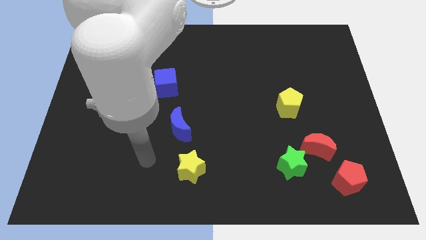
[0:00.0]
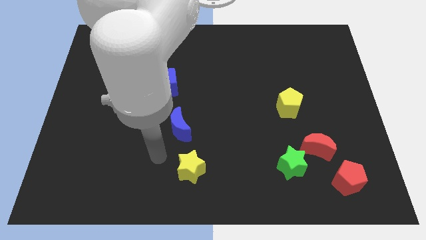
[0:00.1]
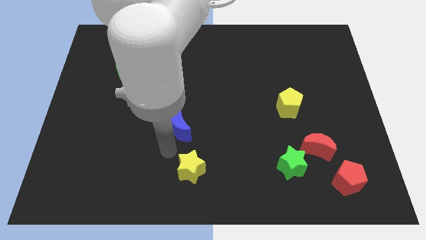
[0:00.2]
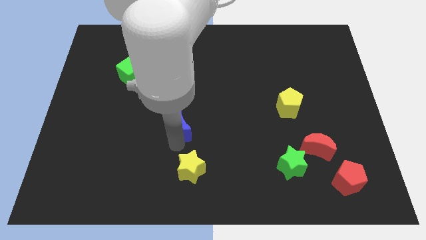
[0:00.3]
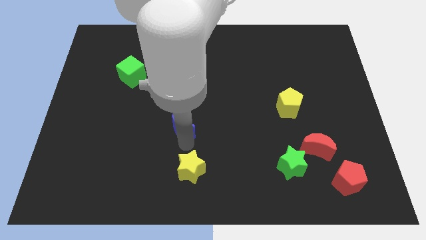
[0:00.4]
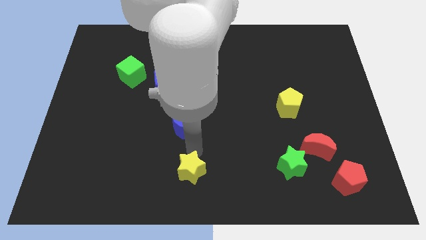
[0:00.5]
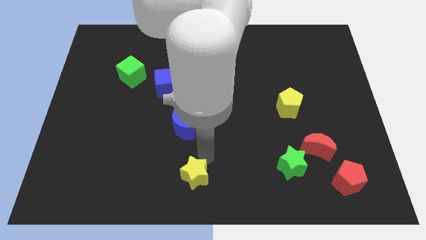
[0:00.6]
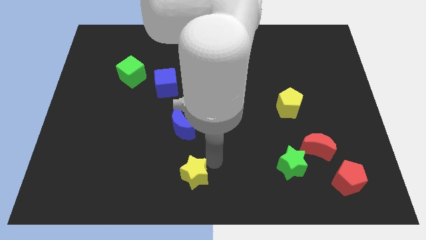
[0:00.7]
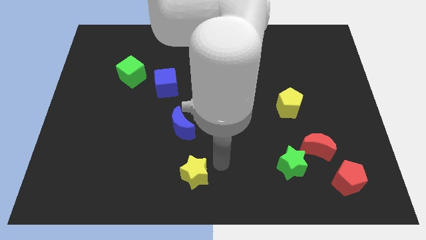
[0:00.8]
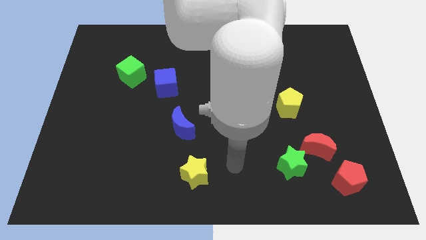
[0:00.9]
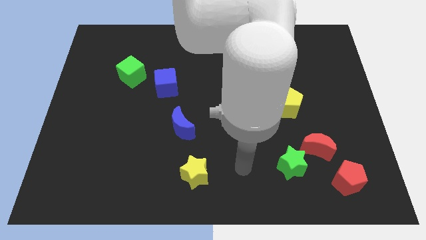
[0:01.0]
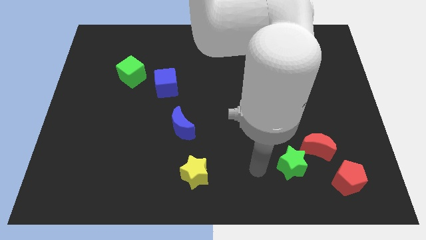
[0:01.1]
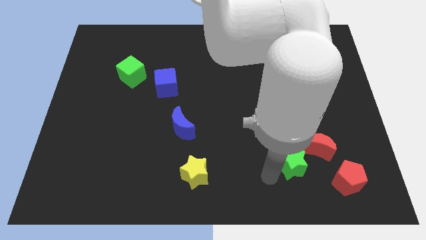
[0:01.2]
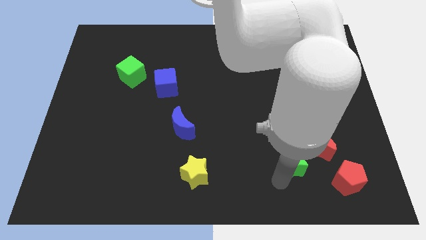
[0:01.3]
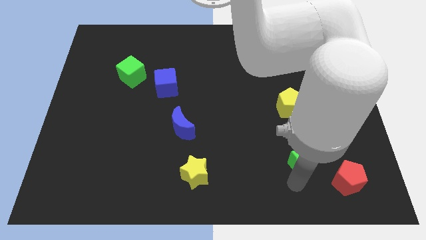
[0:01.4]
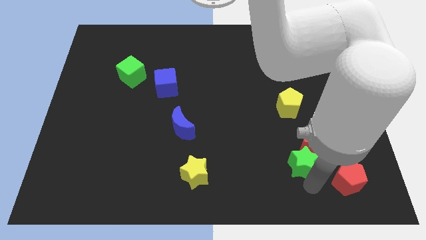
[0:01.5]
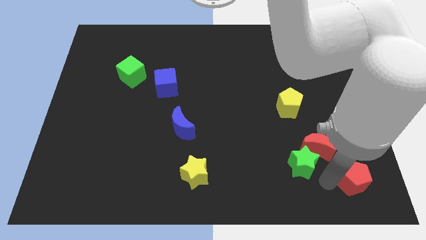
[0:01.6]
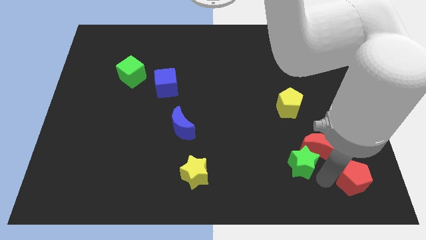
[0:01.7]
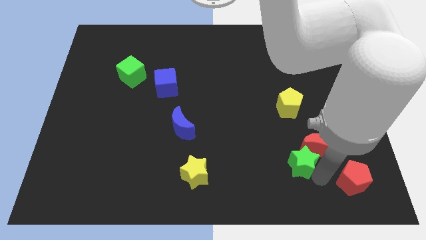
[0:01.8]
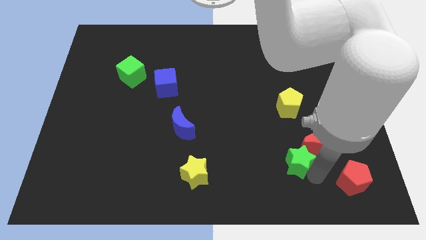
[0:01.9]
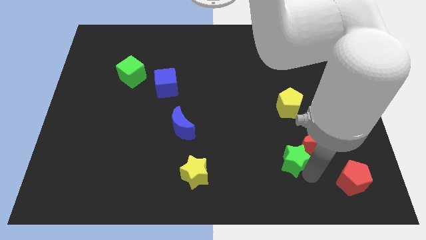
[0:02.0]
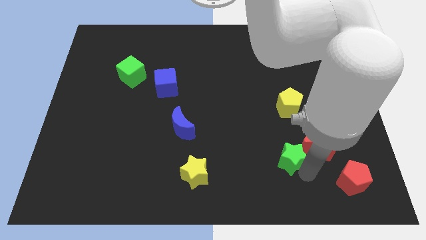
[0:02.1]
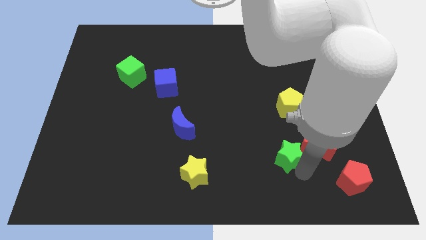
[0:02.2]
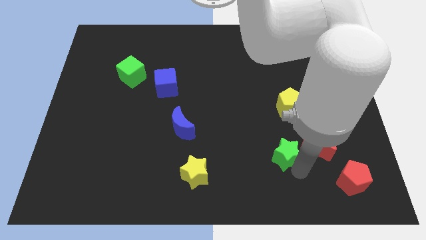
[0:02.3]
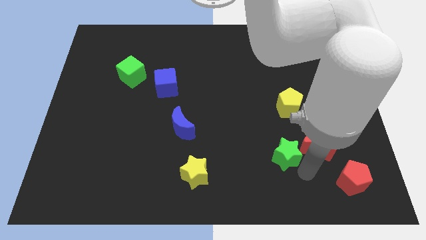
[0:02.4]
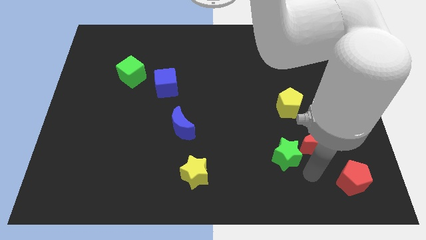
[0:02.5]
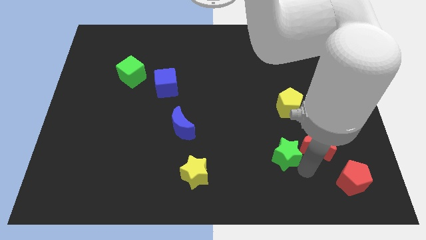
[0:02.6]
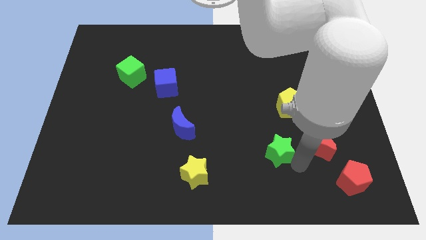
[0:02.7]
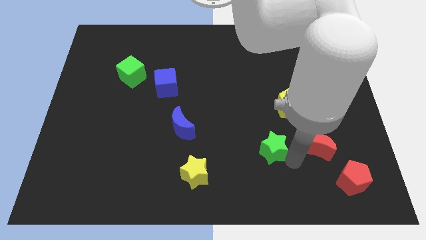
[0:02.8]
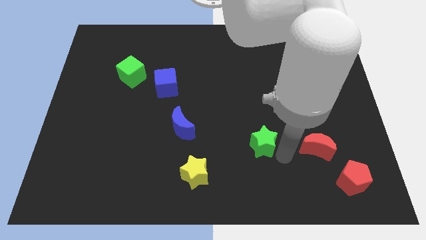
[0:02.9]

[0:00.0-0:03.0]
slightly slide the green star diagonally upwards and to the left

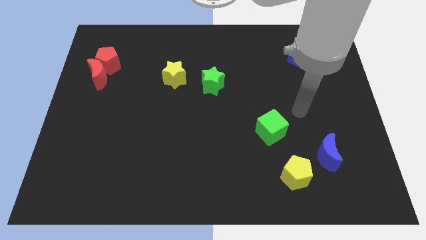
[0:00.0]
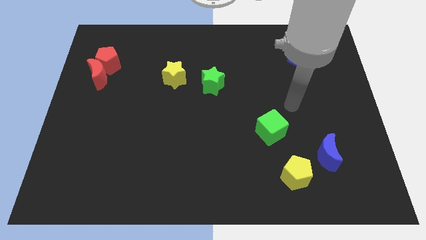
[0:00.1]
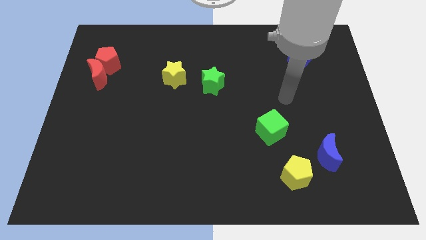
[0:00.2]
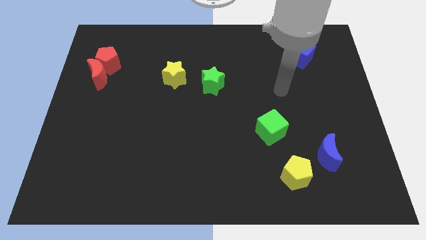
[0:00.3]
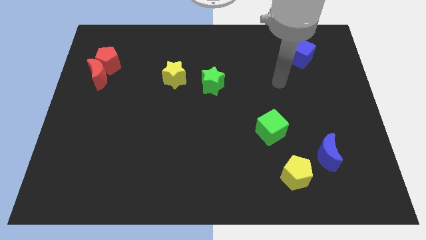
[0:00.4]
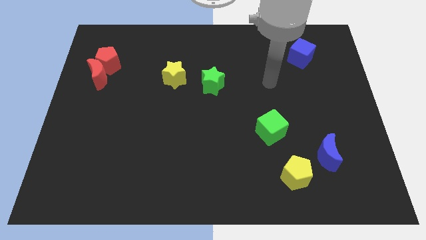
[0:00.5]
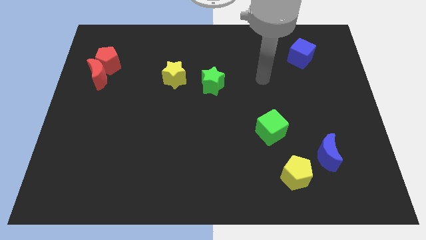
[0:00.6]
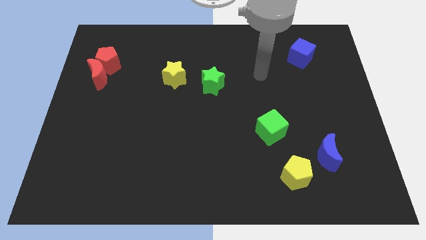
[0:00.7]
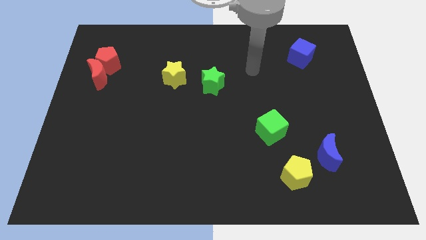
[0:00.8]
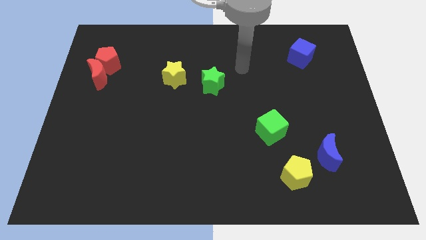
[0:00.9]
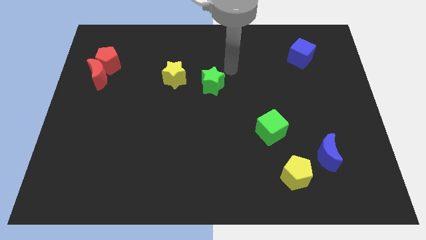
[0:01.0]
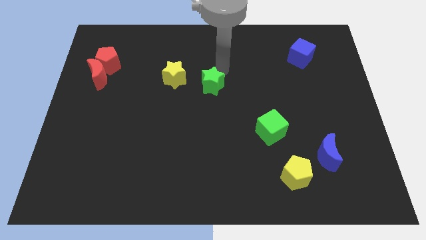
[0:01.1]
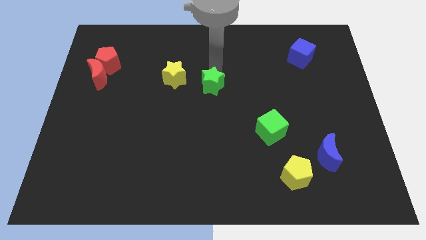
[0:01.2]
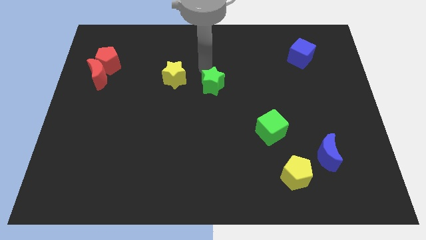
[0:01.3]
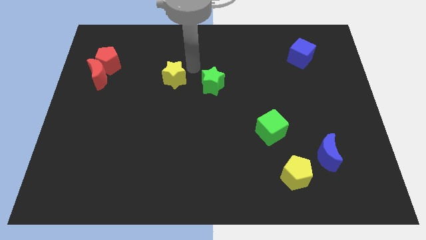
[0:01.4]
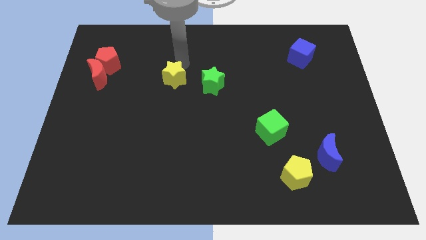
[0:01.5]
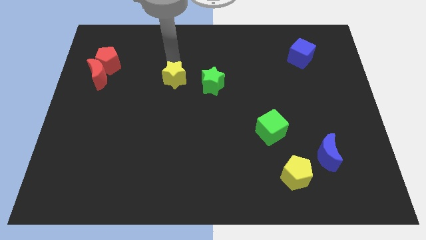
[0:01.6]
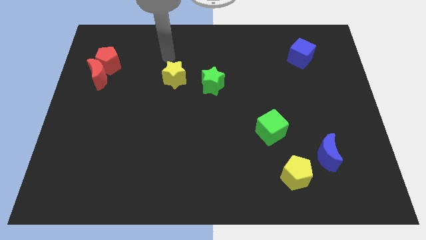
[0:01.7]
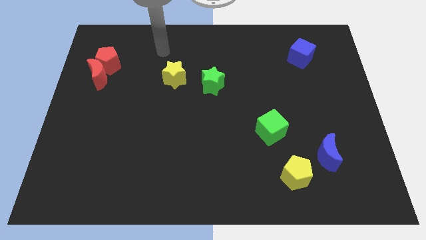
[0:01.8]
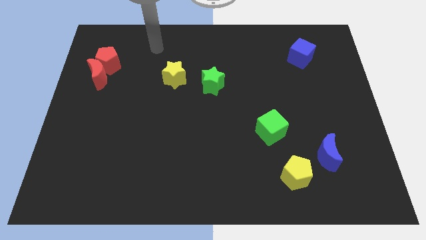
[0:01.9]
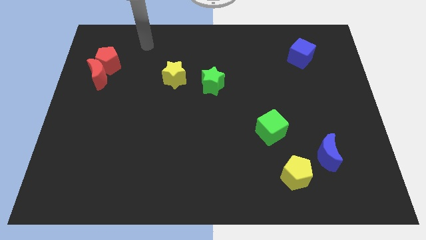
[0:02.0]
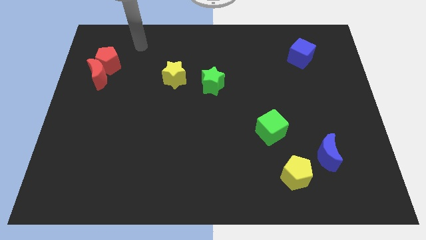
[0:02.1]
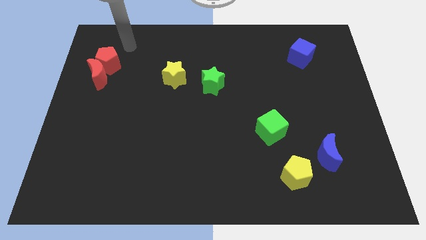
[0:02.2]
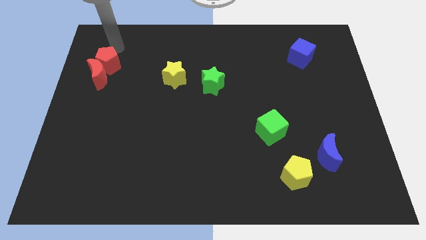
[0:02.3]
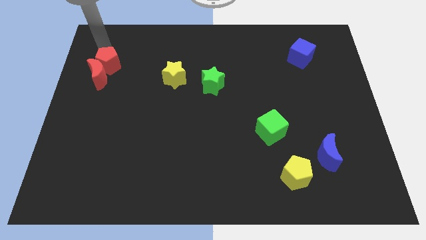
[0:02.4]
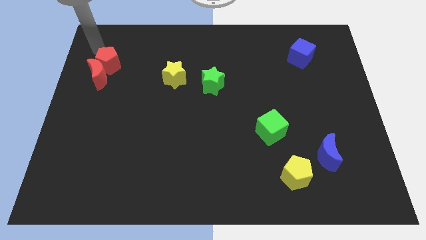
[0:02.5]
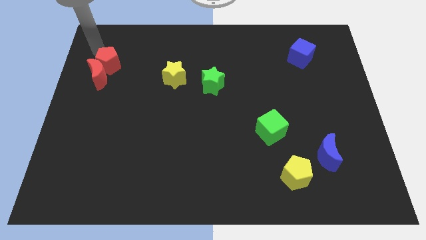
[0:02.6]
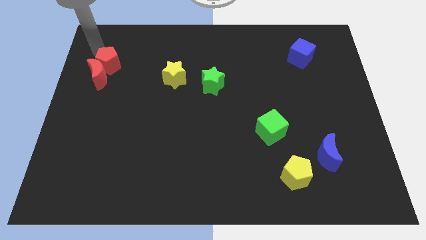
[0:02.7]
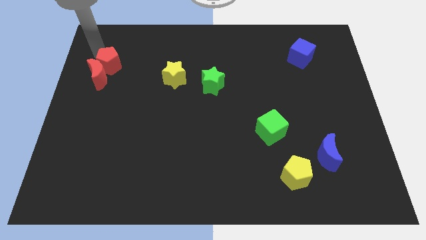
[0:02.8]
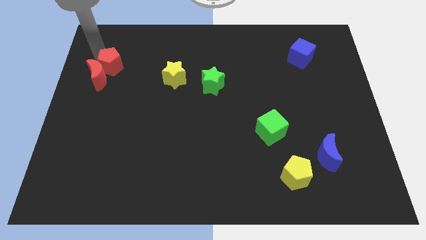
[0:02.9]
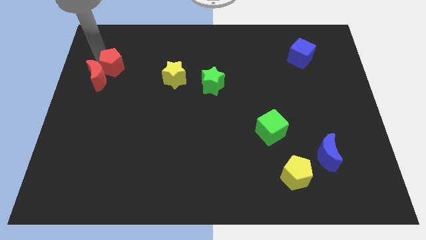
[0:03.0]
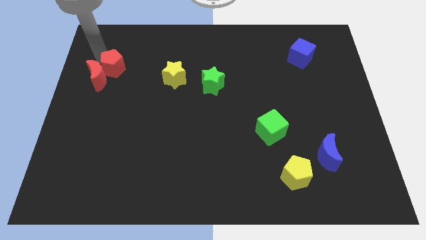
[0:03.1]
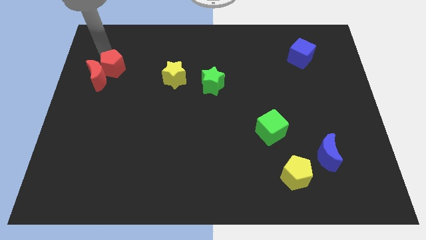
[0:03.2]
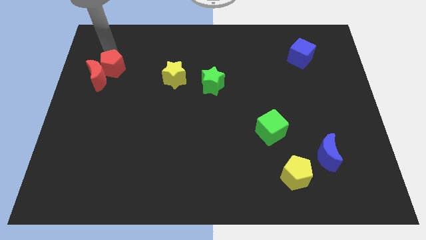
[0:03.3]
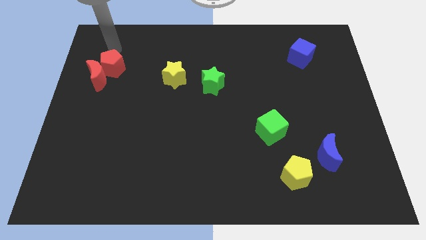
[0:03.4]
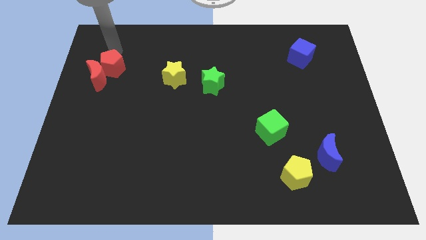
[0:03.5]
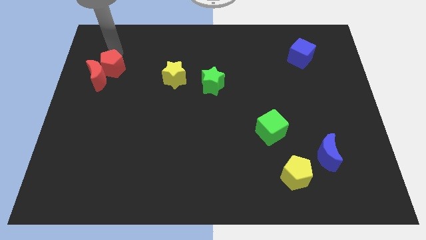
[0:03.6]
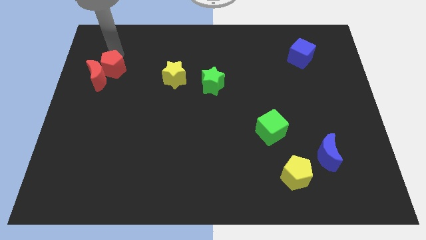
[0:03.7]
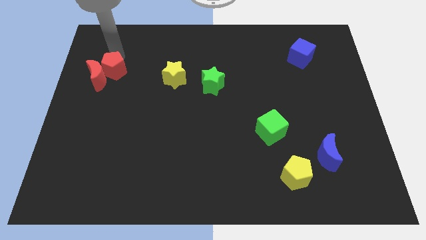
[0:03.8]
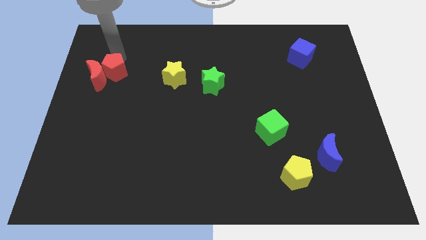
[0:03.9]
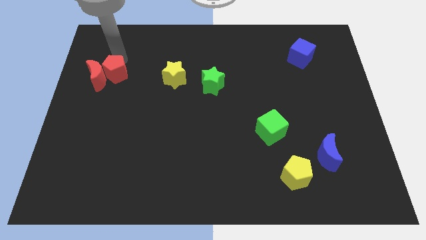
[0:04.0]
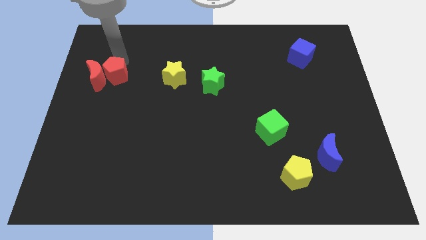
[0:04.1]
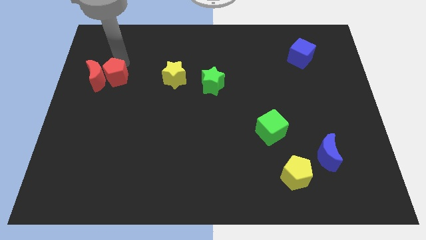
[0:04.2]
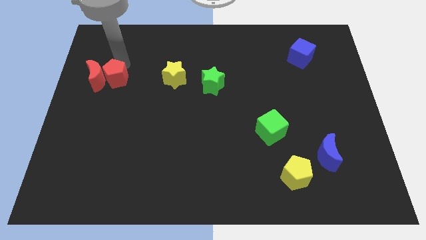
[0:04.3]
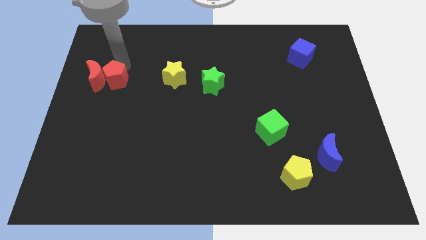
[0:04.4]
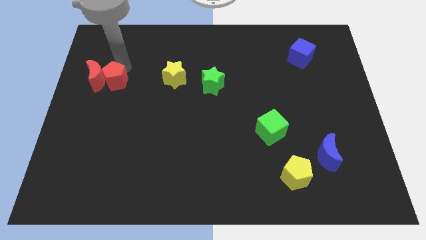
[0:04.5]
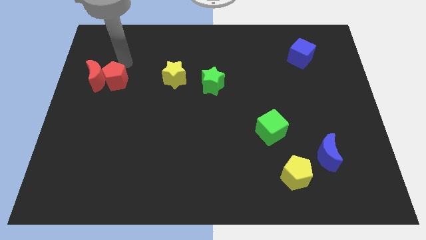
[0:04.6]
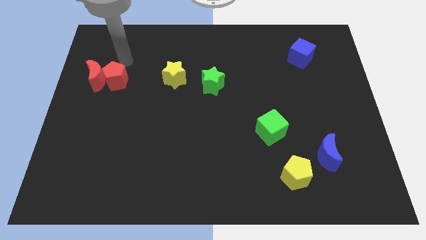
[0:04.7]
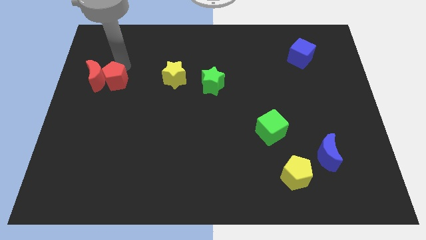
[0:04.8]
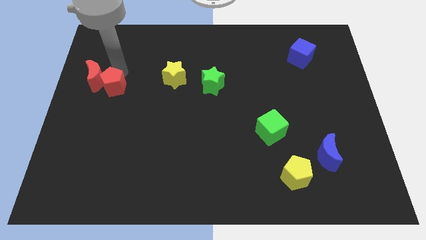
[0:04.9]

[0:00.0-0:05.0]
slightly move the red pentagon downwards

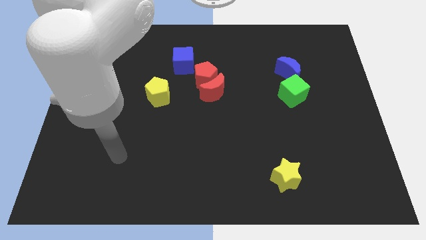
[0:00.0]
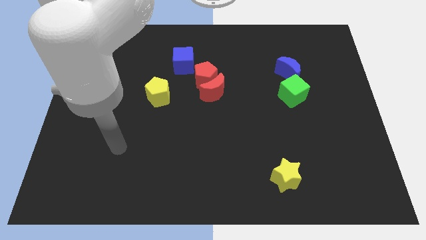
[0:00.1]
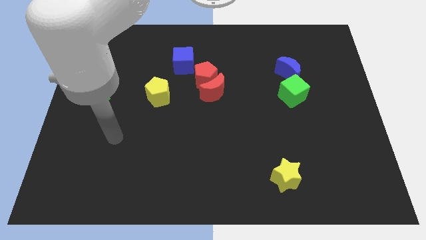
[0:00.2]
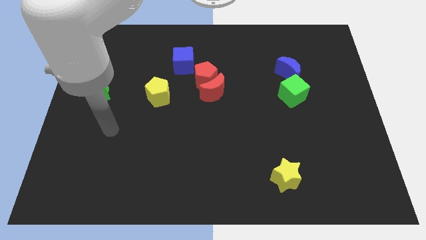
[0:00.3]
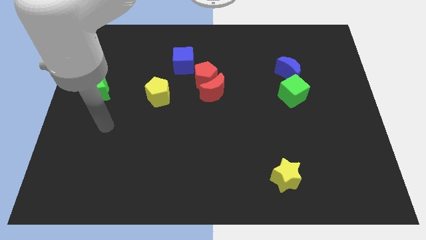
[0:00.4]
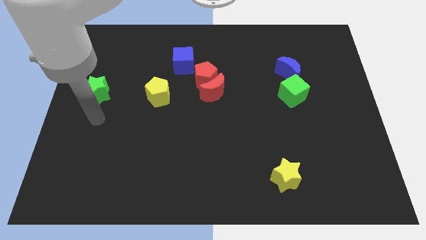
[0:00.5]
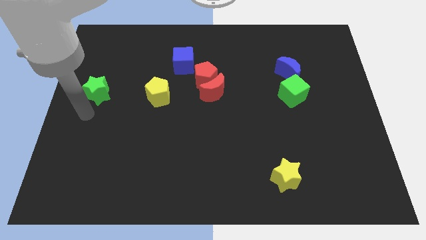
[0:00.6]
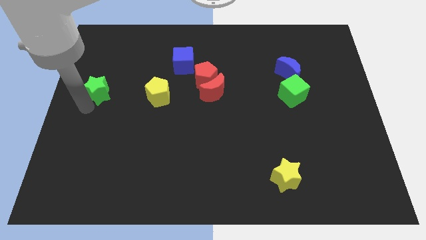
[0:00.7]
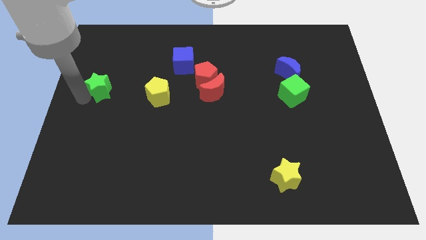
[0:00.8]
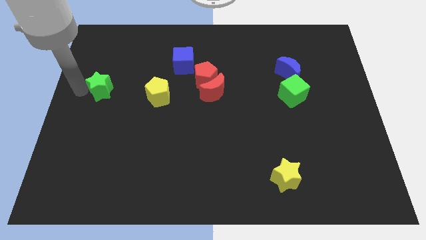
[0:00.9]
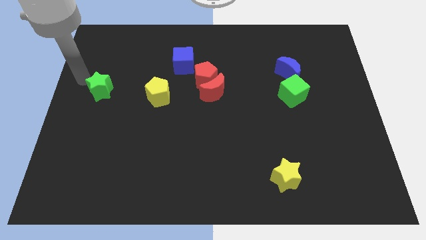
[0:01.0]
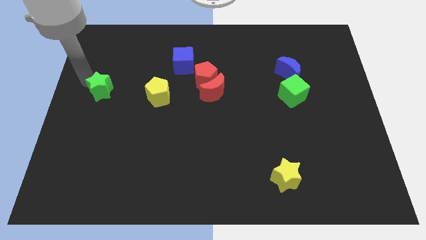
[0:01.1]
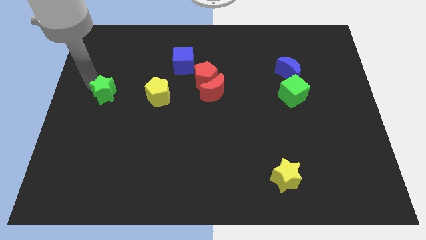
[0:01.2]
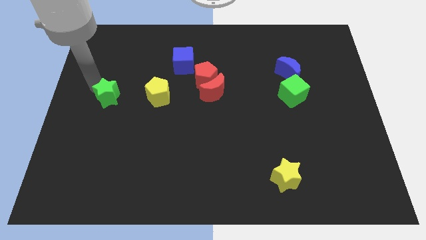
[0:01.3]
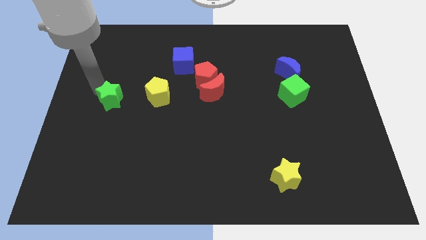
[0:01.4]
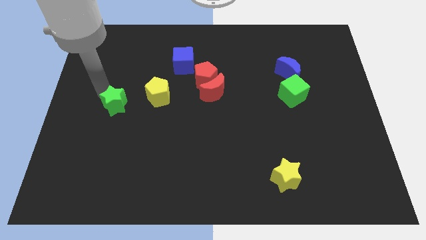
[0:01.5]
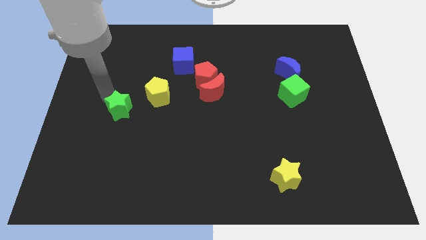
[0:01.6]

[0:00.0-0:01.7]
slightly slide the green star downwards and right
